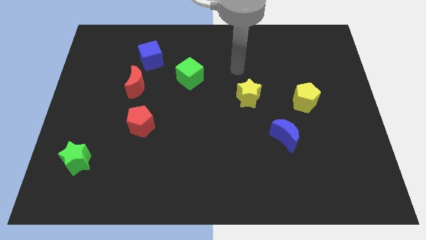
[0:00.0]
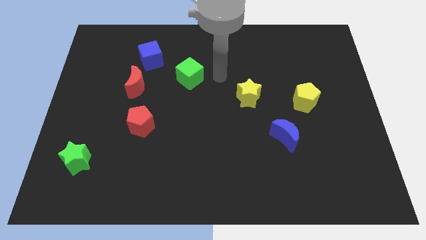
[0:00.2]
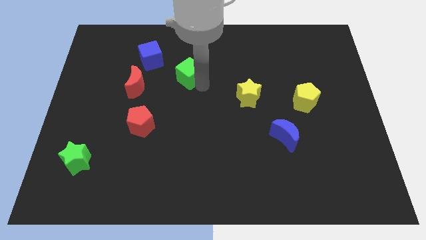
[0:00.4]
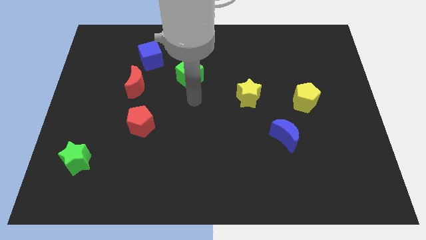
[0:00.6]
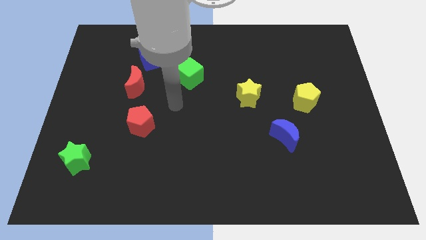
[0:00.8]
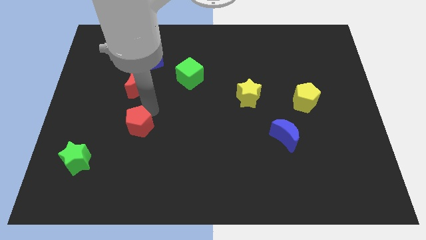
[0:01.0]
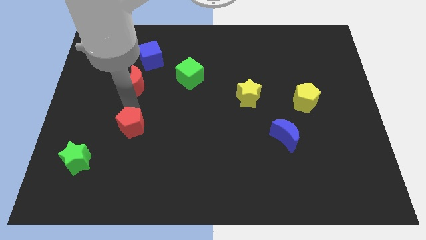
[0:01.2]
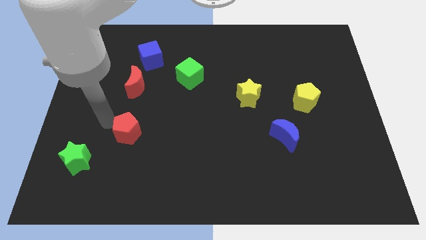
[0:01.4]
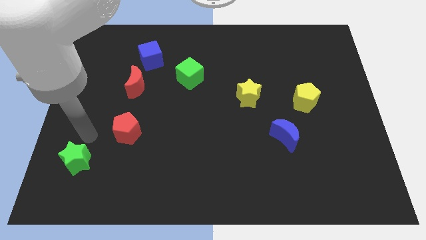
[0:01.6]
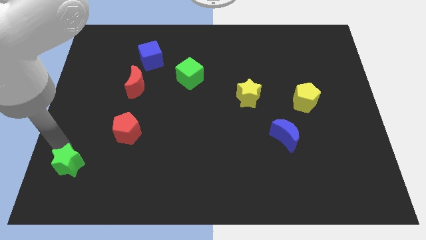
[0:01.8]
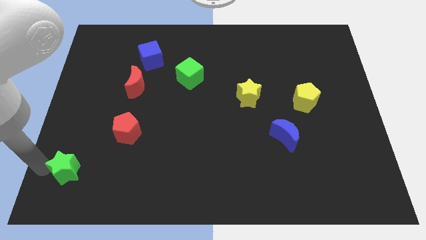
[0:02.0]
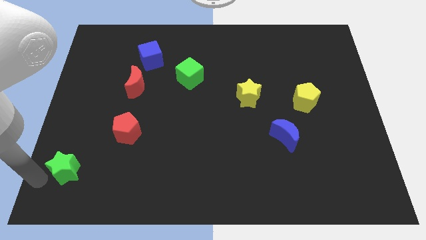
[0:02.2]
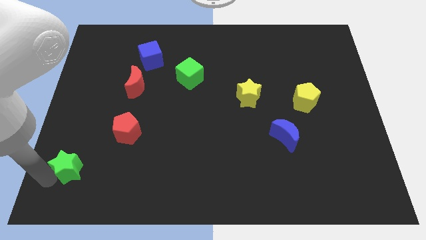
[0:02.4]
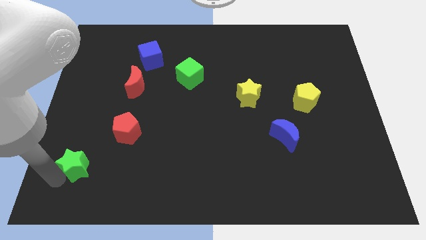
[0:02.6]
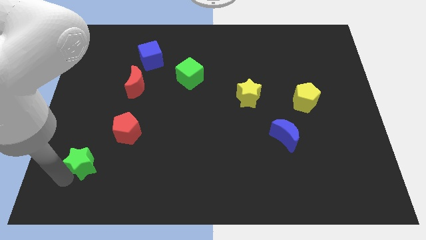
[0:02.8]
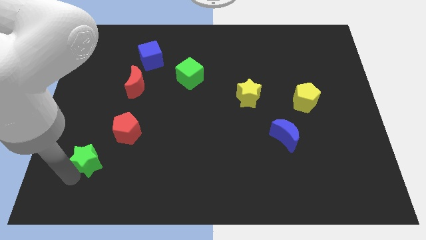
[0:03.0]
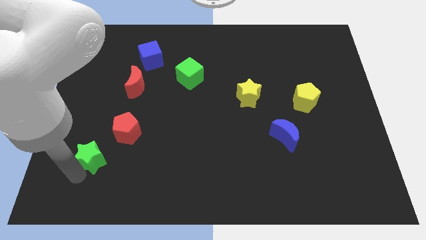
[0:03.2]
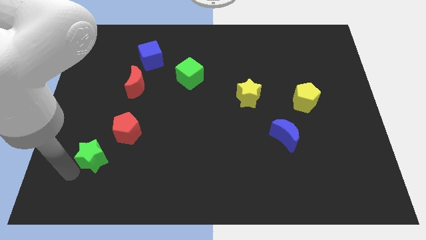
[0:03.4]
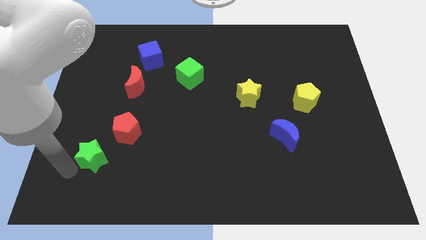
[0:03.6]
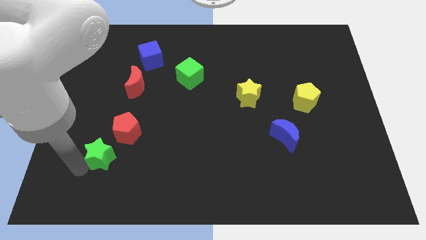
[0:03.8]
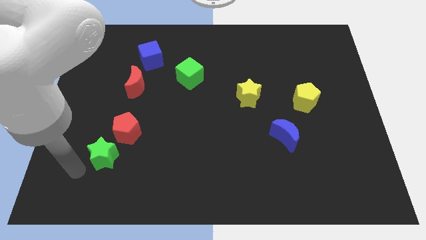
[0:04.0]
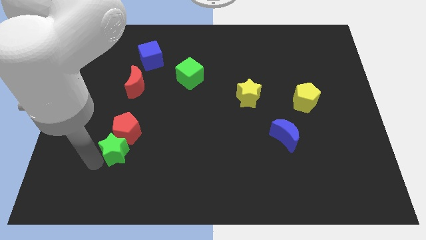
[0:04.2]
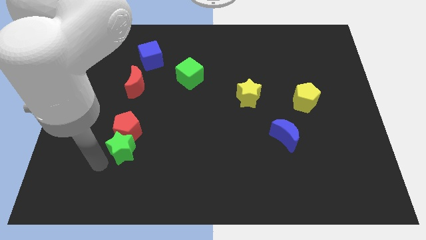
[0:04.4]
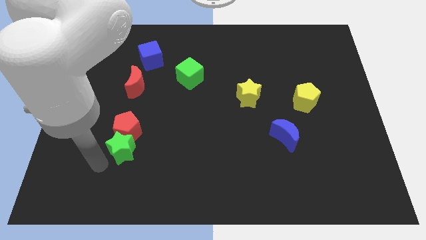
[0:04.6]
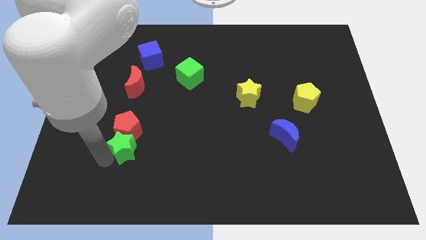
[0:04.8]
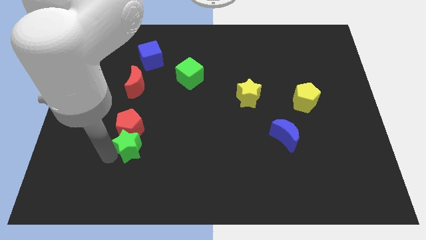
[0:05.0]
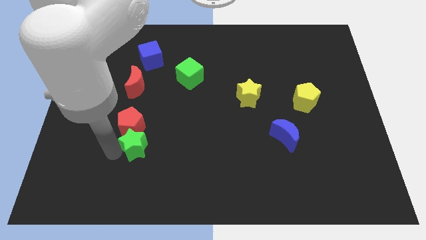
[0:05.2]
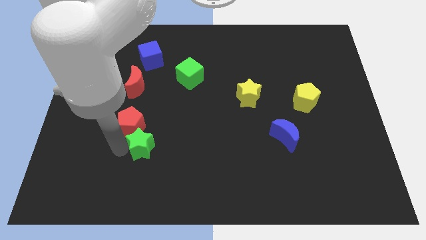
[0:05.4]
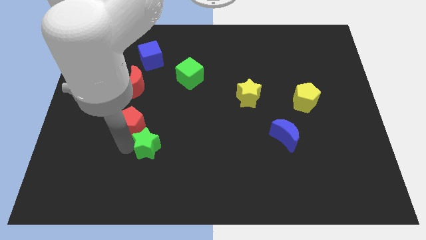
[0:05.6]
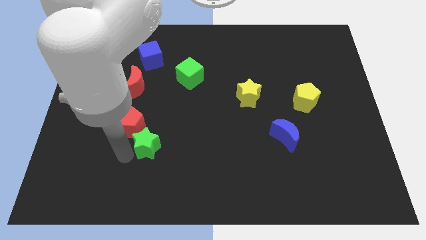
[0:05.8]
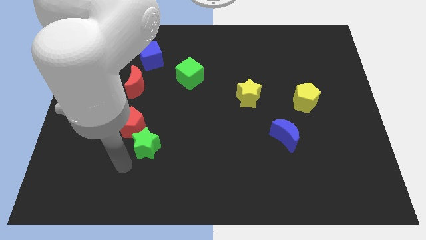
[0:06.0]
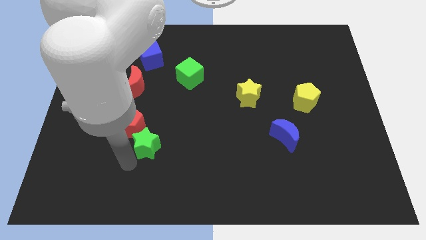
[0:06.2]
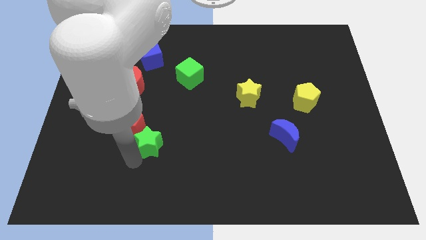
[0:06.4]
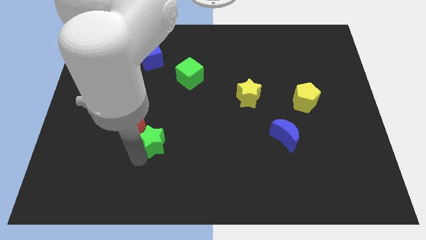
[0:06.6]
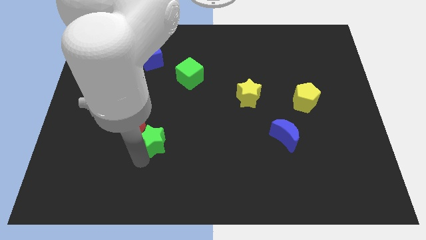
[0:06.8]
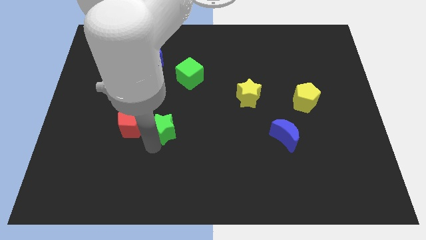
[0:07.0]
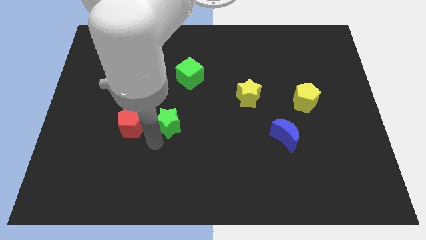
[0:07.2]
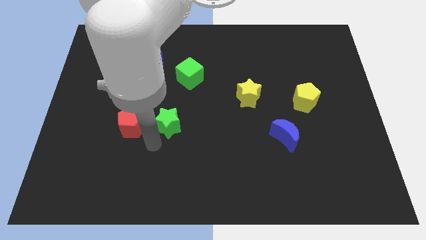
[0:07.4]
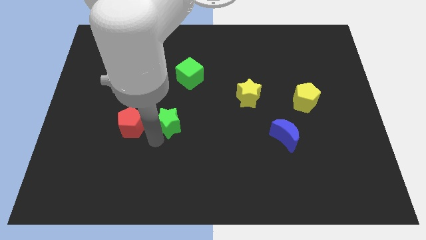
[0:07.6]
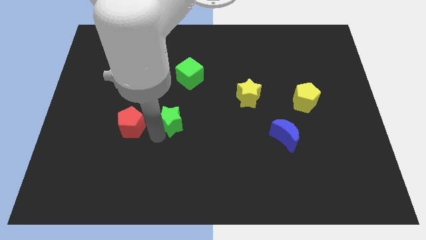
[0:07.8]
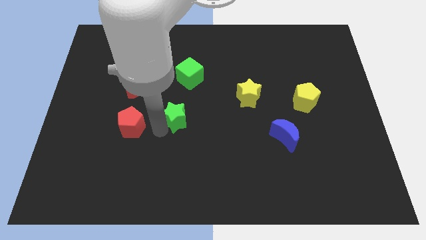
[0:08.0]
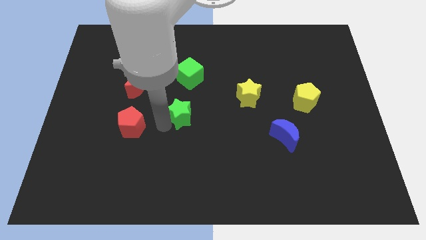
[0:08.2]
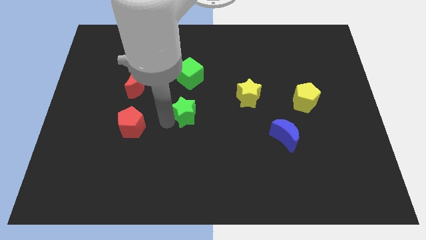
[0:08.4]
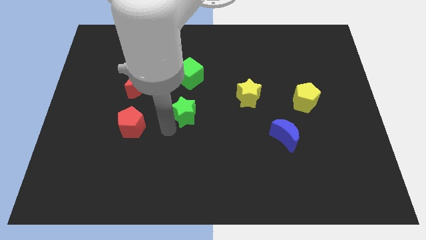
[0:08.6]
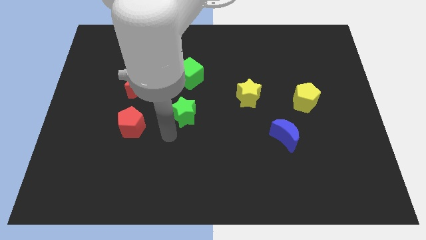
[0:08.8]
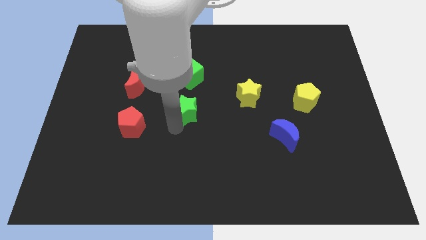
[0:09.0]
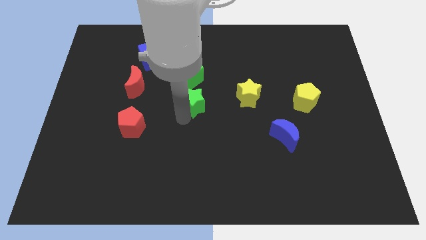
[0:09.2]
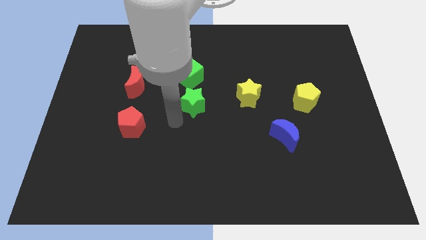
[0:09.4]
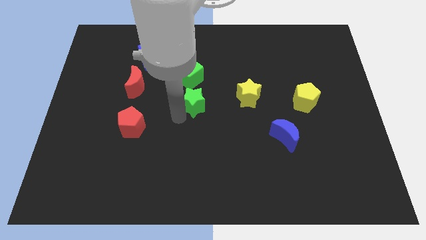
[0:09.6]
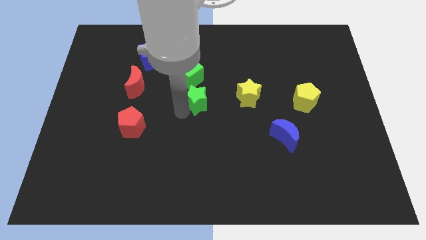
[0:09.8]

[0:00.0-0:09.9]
slide the green star to the bottom right of the green cube

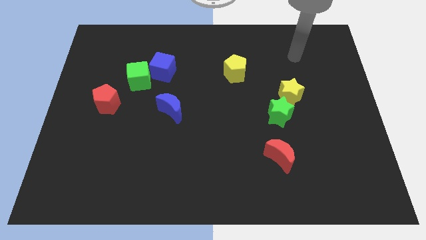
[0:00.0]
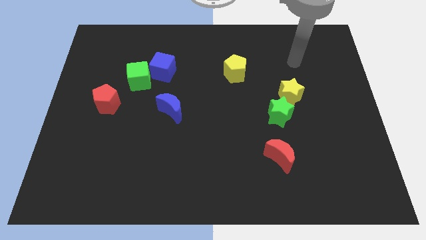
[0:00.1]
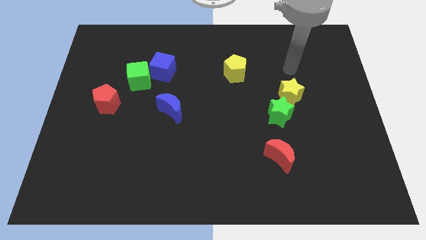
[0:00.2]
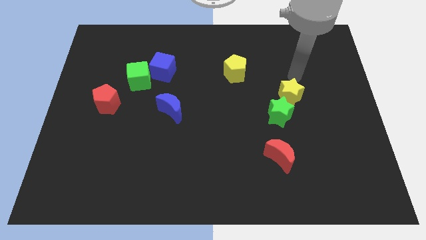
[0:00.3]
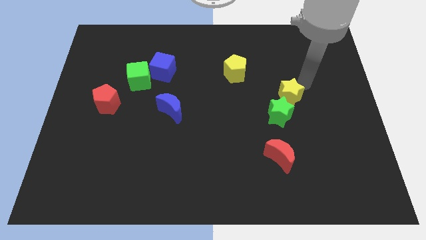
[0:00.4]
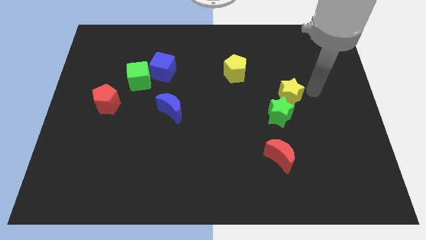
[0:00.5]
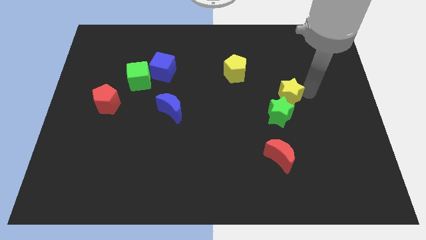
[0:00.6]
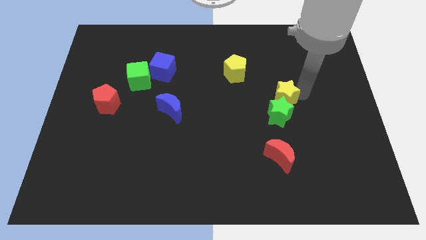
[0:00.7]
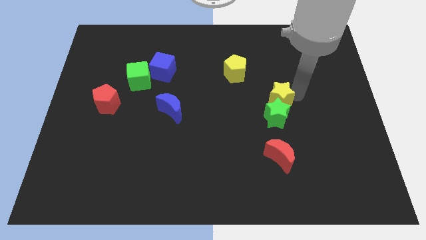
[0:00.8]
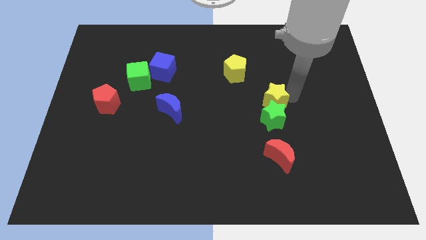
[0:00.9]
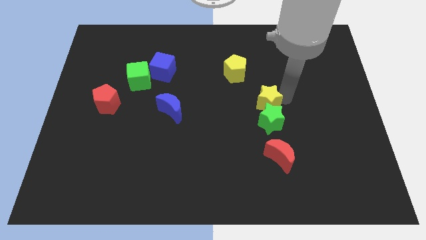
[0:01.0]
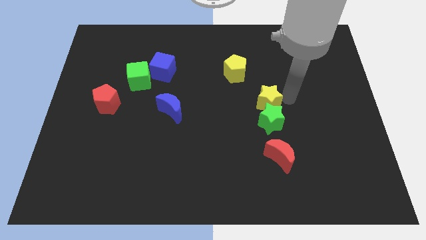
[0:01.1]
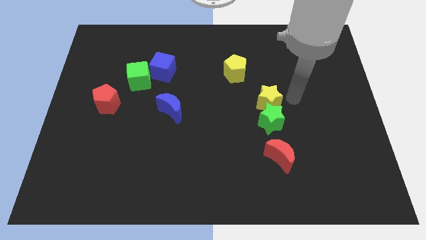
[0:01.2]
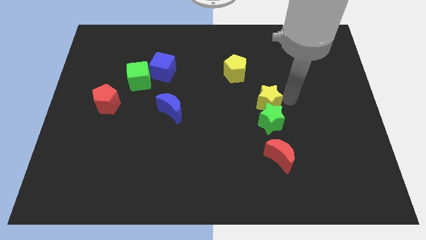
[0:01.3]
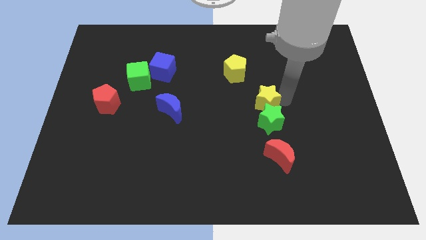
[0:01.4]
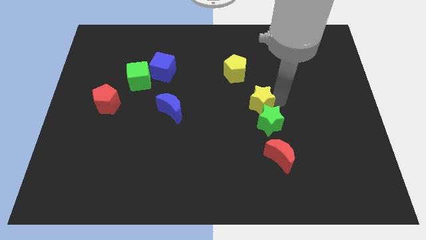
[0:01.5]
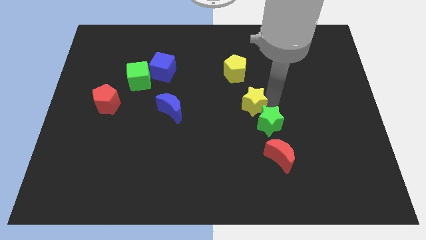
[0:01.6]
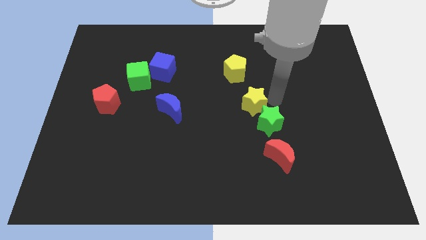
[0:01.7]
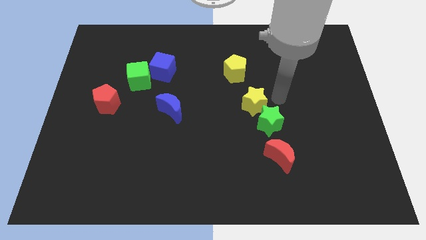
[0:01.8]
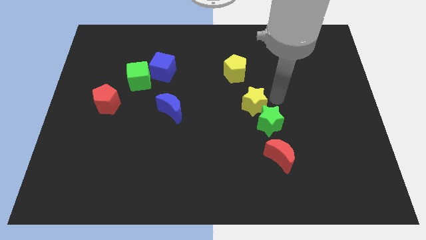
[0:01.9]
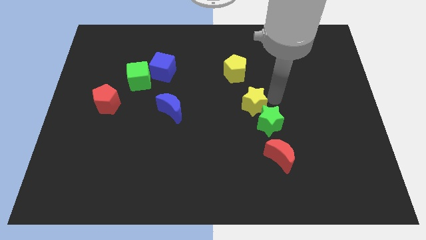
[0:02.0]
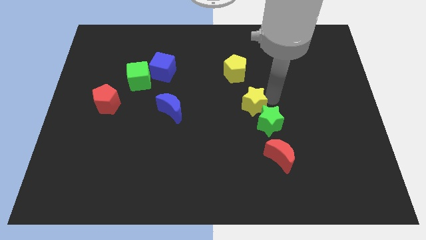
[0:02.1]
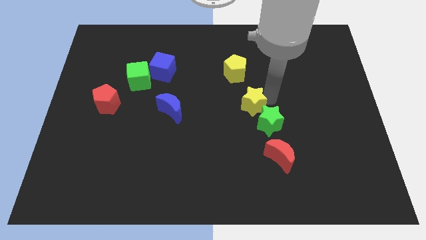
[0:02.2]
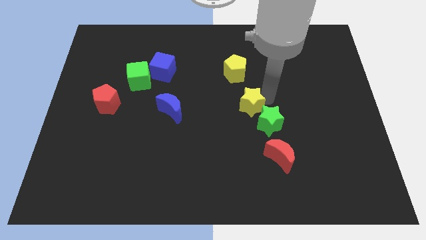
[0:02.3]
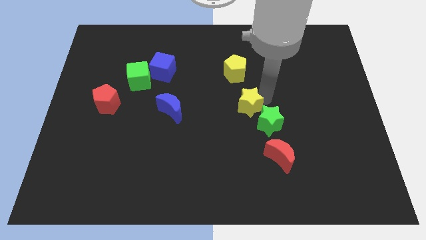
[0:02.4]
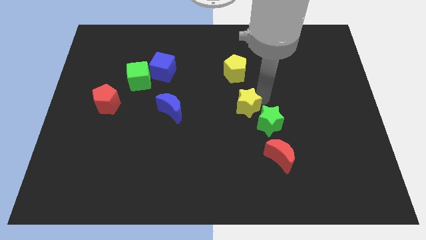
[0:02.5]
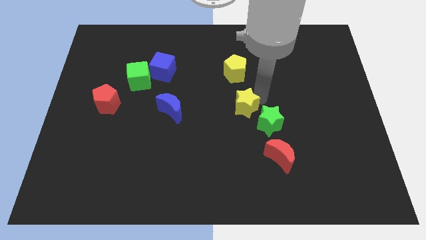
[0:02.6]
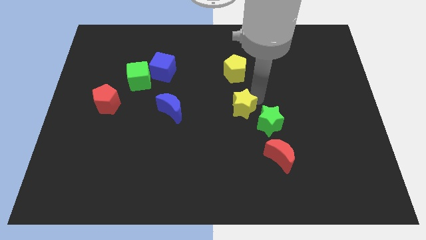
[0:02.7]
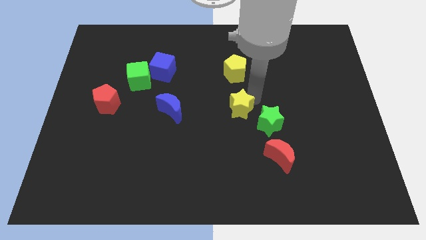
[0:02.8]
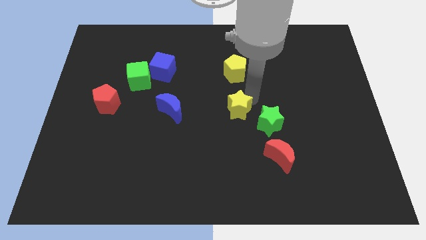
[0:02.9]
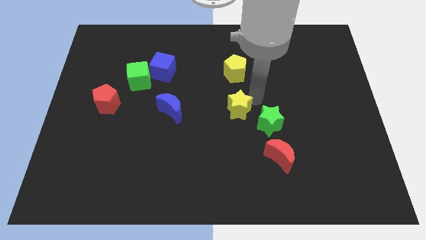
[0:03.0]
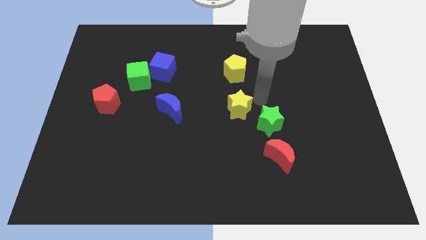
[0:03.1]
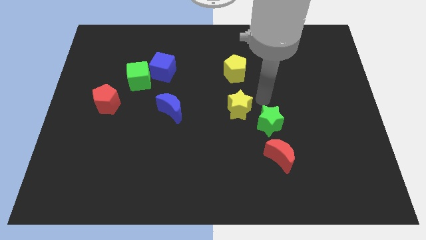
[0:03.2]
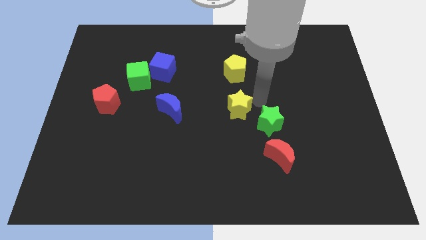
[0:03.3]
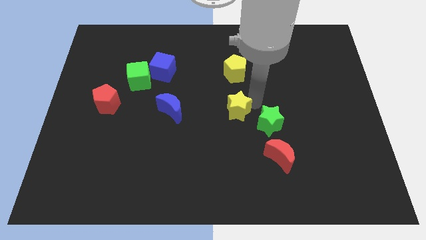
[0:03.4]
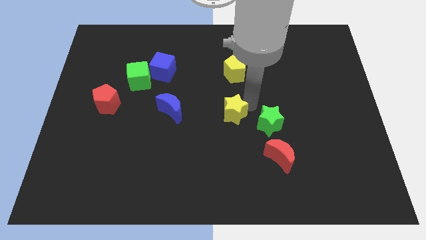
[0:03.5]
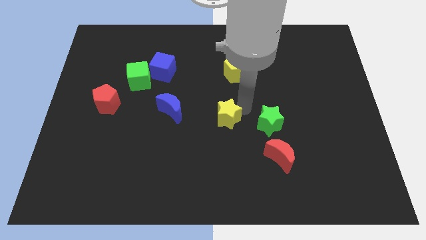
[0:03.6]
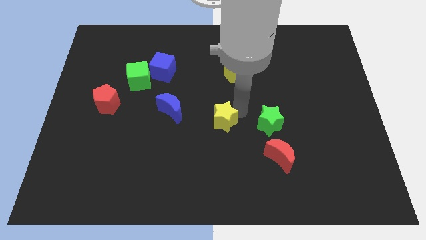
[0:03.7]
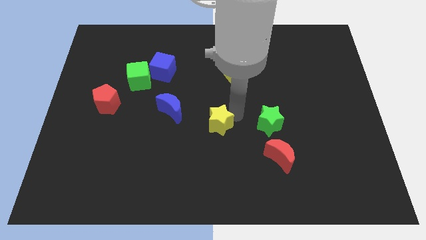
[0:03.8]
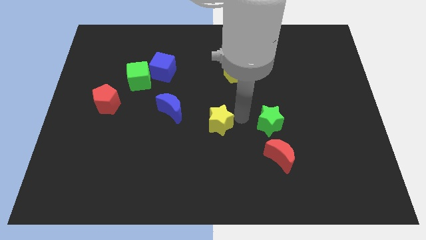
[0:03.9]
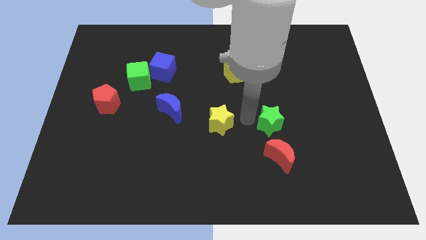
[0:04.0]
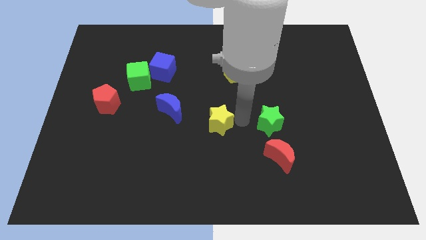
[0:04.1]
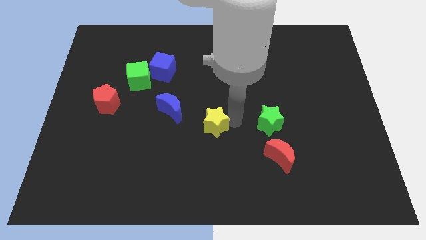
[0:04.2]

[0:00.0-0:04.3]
push the yellow star diagonally down and to the right of the blue moon
